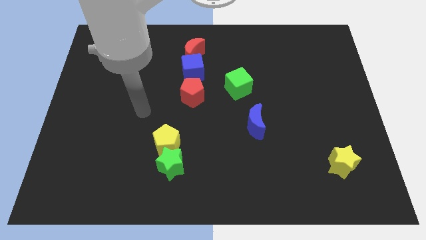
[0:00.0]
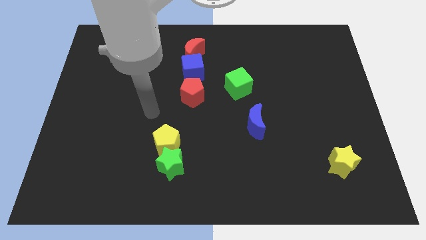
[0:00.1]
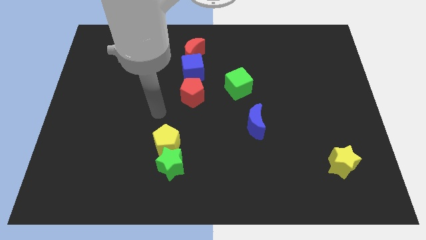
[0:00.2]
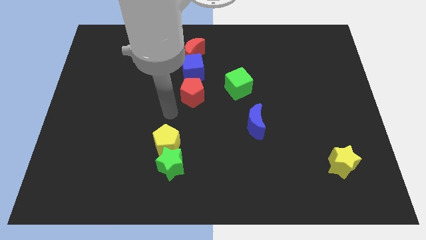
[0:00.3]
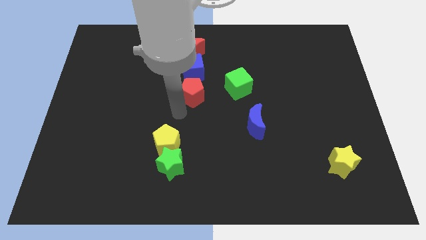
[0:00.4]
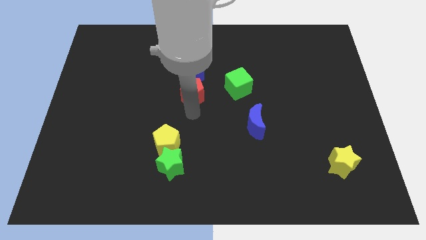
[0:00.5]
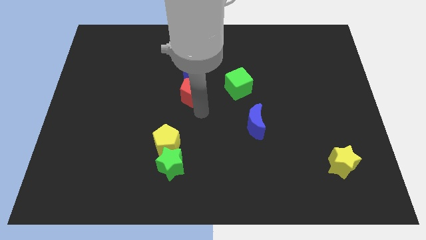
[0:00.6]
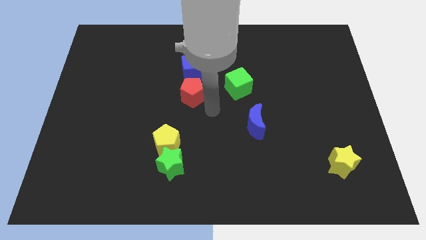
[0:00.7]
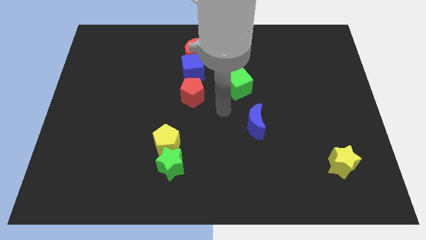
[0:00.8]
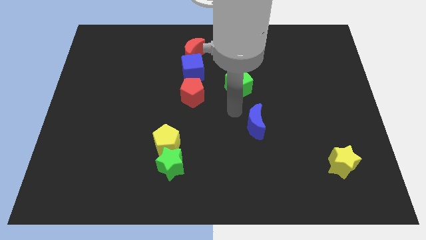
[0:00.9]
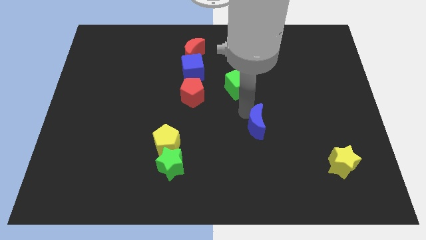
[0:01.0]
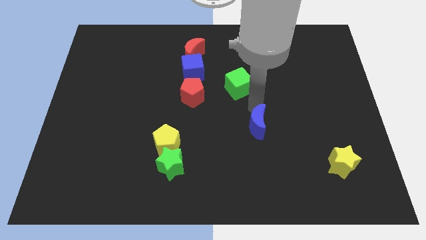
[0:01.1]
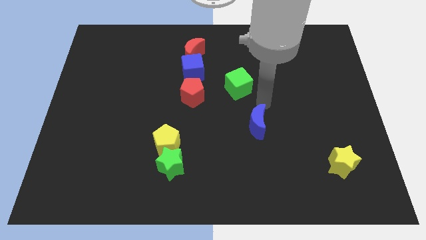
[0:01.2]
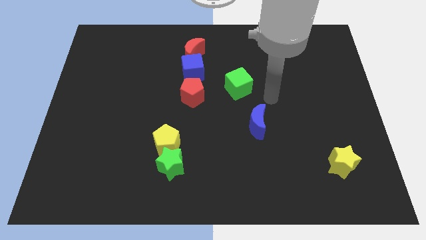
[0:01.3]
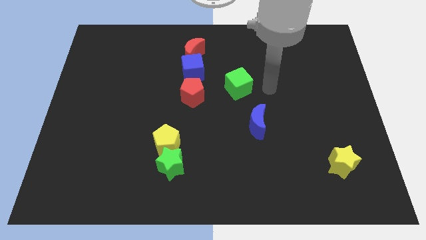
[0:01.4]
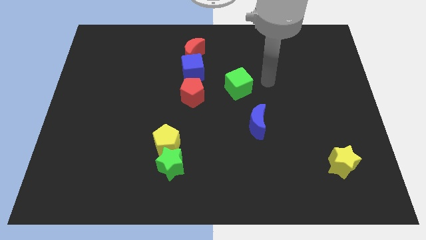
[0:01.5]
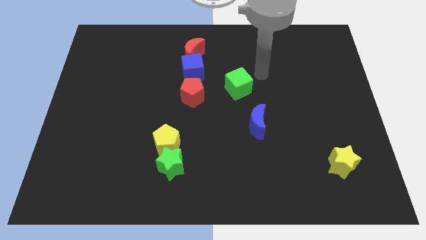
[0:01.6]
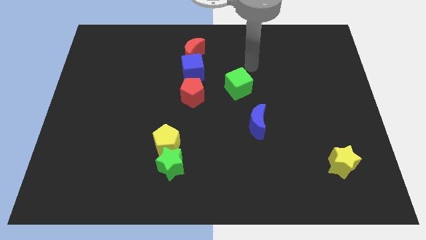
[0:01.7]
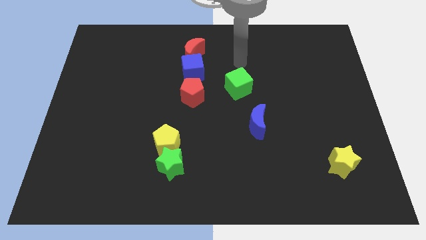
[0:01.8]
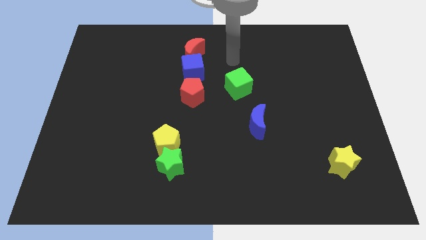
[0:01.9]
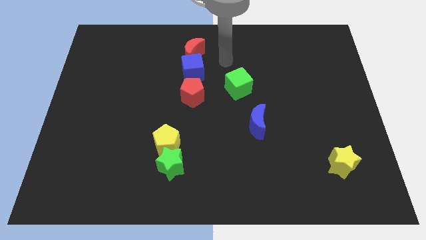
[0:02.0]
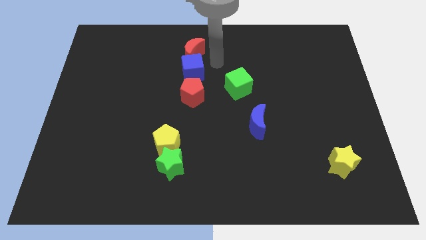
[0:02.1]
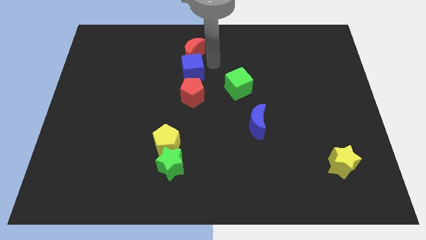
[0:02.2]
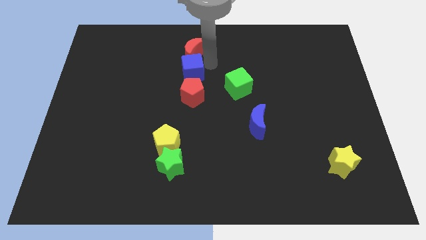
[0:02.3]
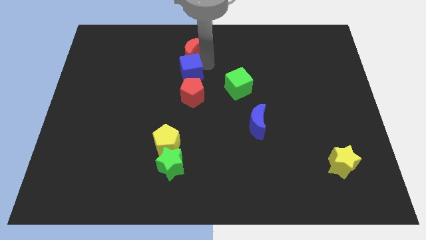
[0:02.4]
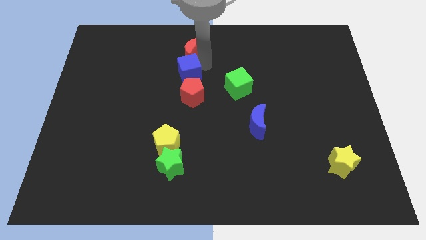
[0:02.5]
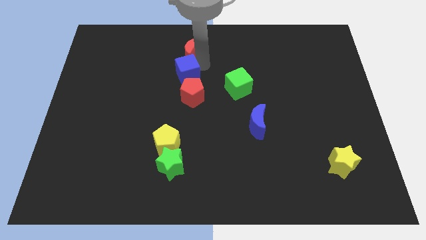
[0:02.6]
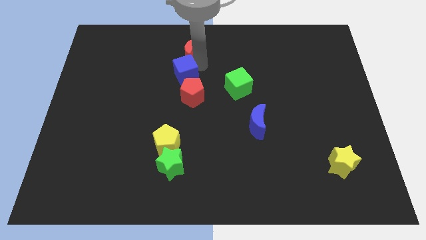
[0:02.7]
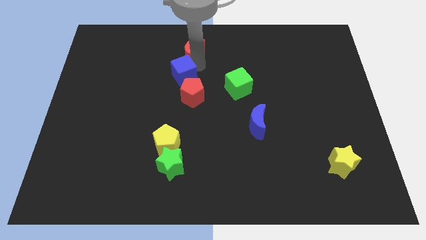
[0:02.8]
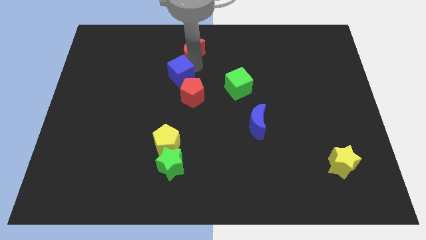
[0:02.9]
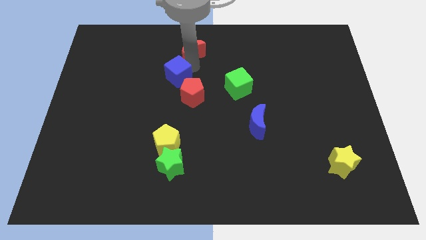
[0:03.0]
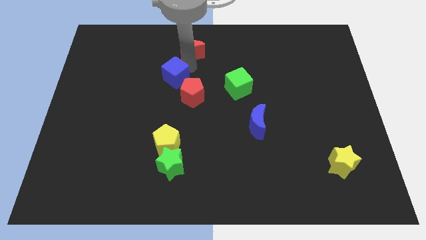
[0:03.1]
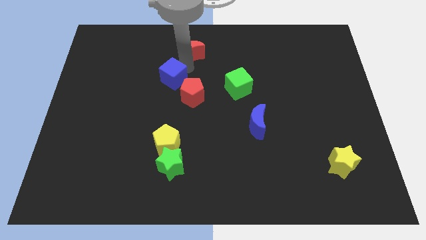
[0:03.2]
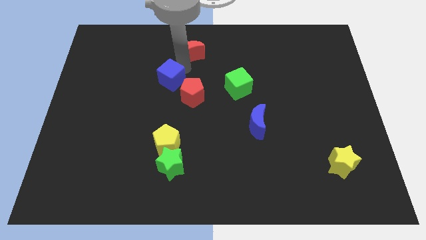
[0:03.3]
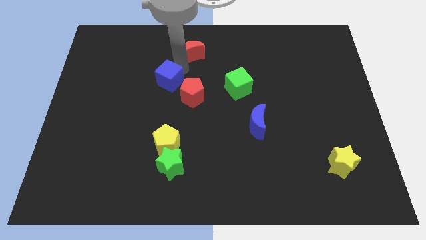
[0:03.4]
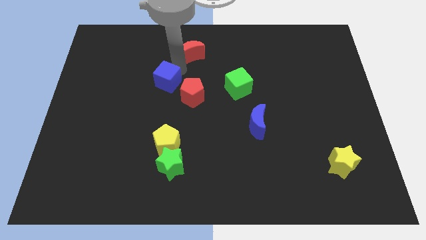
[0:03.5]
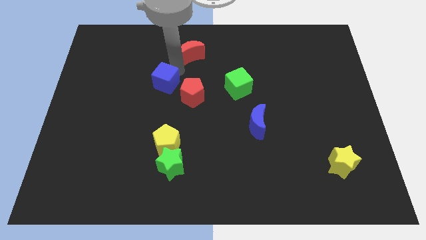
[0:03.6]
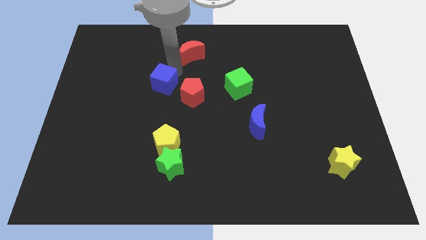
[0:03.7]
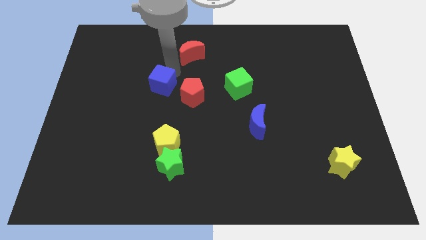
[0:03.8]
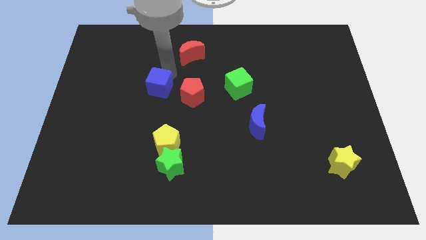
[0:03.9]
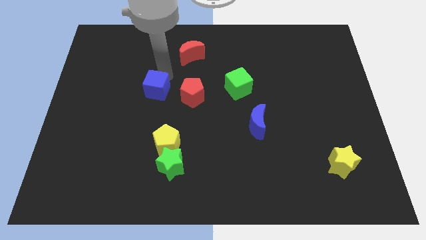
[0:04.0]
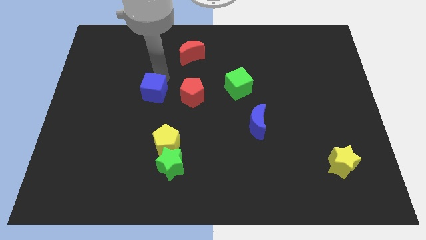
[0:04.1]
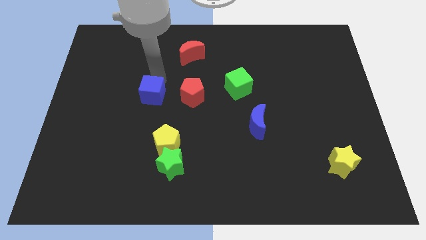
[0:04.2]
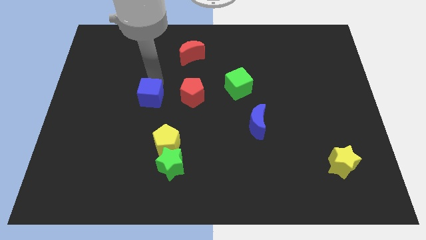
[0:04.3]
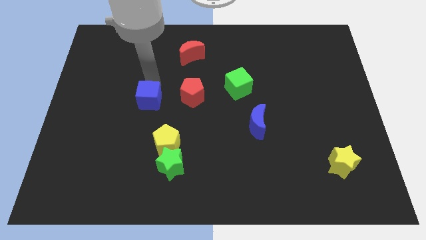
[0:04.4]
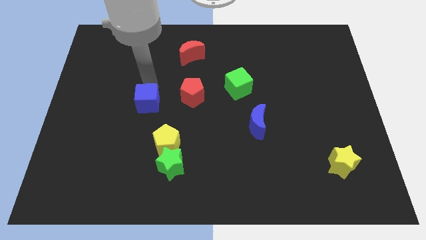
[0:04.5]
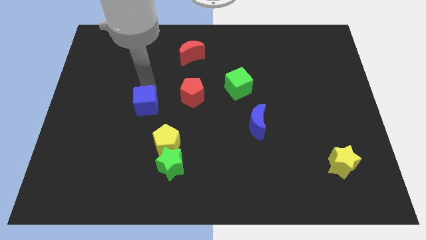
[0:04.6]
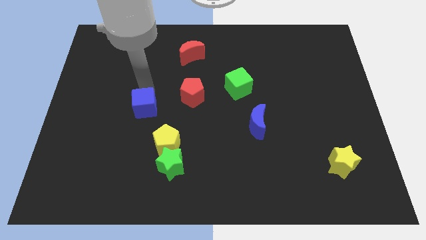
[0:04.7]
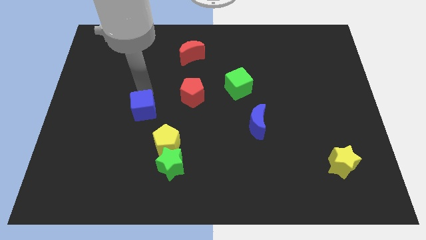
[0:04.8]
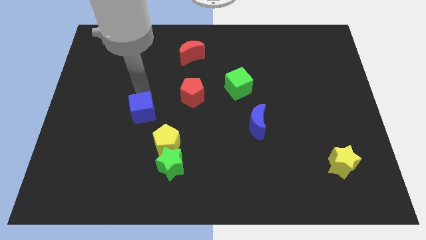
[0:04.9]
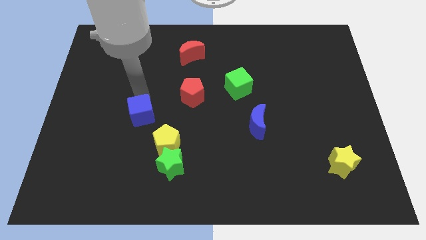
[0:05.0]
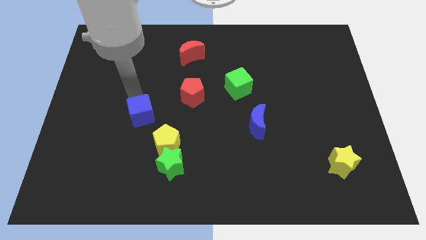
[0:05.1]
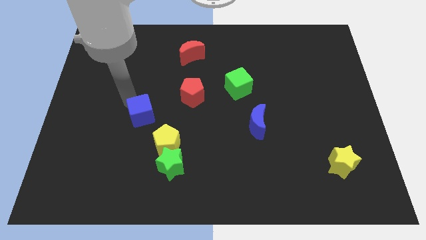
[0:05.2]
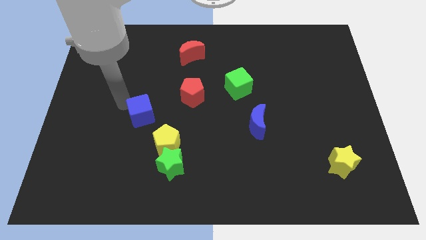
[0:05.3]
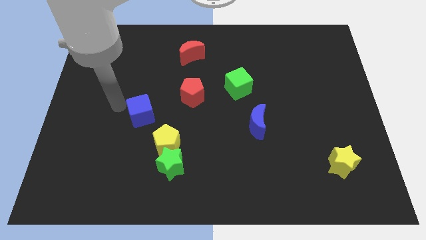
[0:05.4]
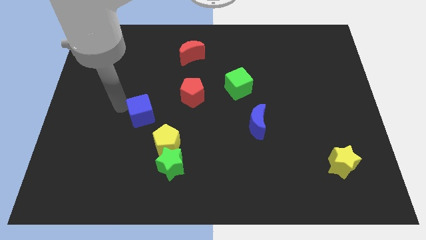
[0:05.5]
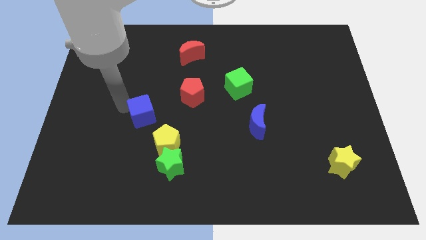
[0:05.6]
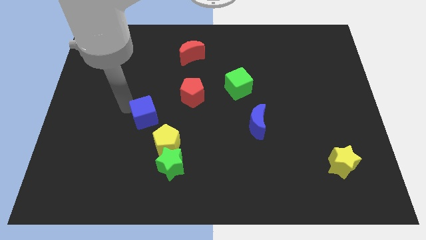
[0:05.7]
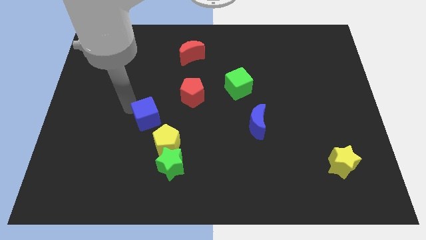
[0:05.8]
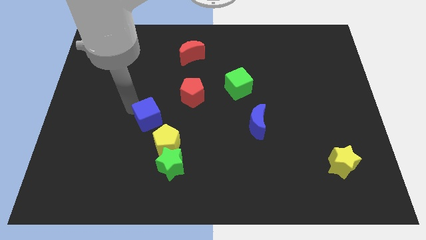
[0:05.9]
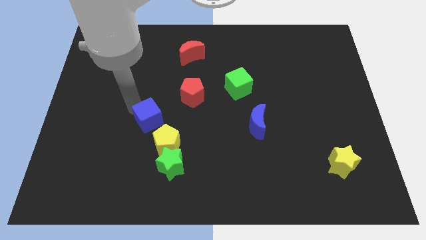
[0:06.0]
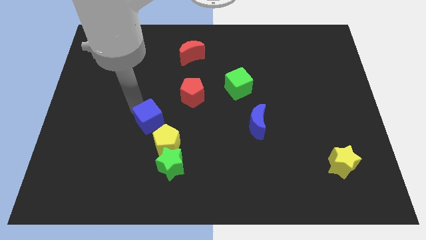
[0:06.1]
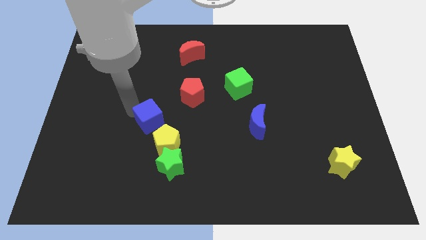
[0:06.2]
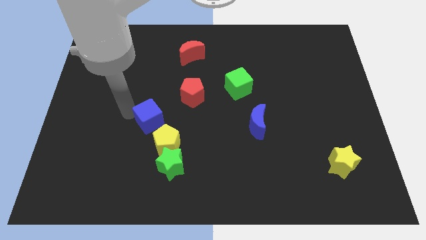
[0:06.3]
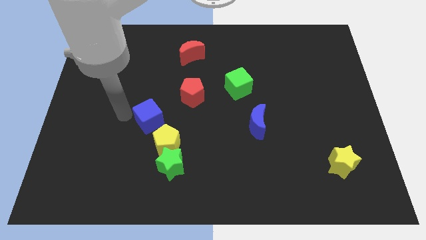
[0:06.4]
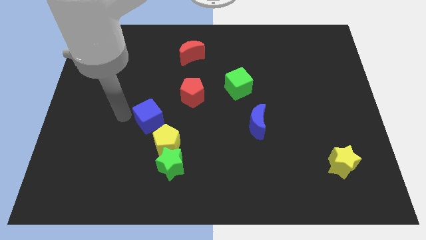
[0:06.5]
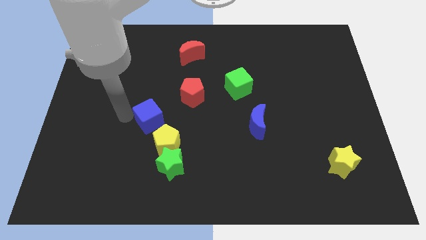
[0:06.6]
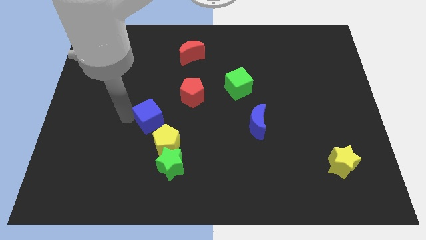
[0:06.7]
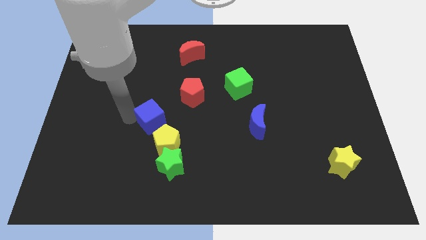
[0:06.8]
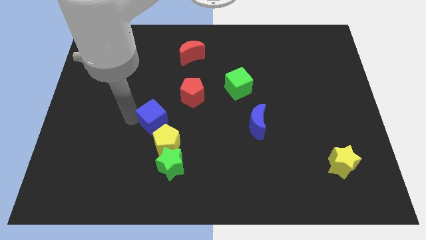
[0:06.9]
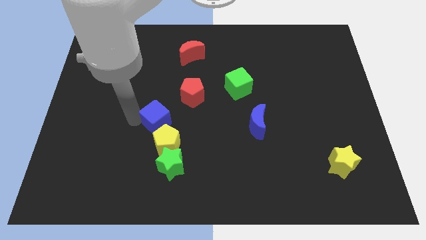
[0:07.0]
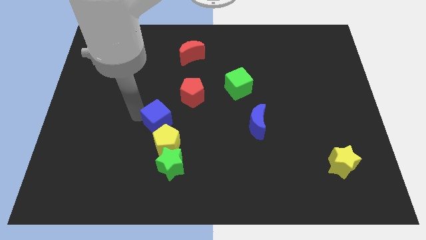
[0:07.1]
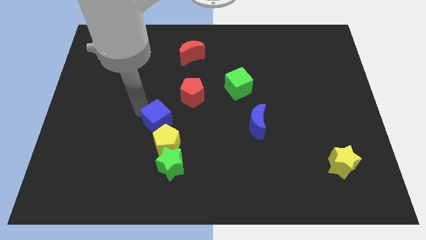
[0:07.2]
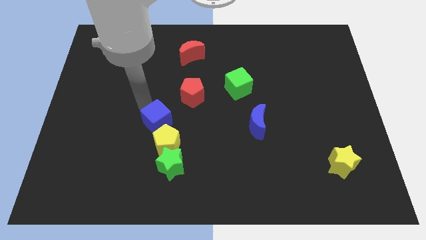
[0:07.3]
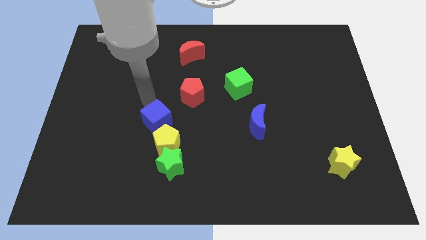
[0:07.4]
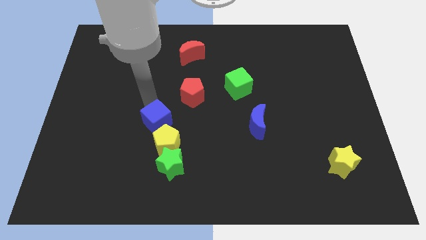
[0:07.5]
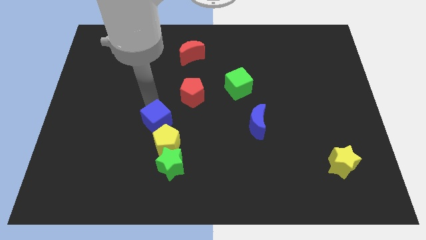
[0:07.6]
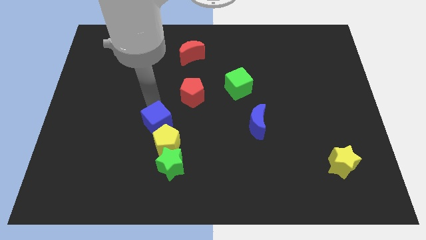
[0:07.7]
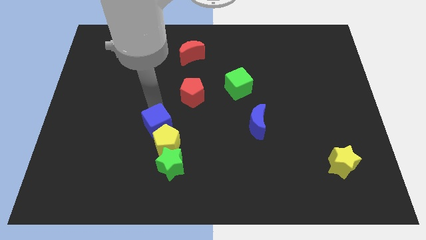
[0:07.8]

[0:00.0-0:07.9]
push the blue cube towards the yellow pentagon
